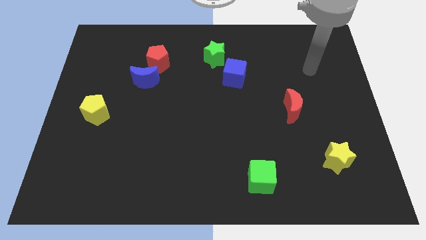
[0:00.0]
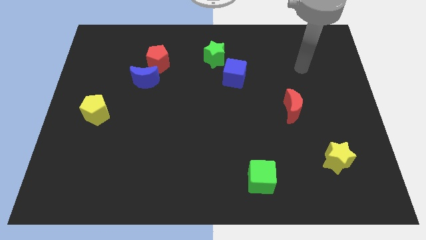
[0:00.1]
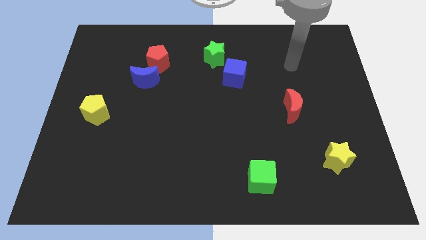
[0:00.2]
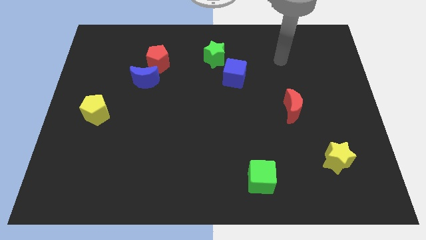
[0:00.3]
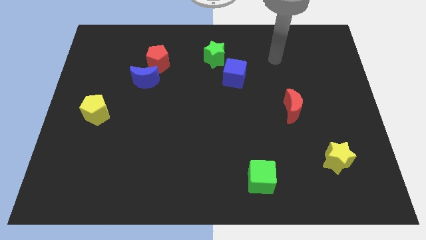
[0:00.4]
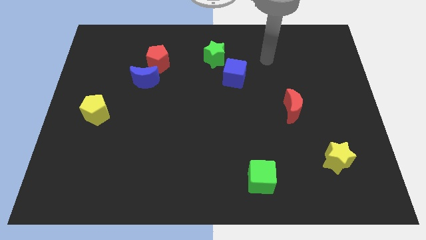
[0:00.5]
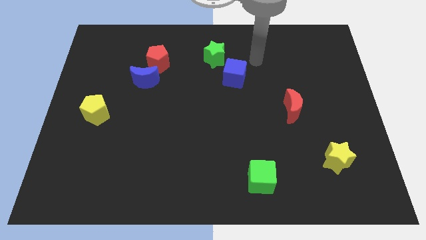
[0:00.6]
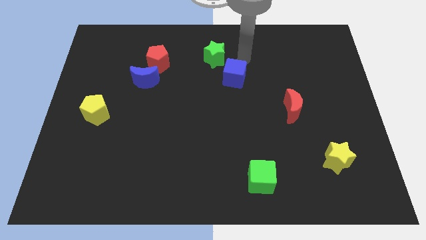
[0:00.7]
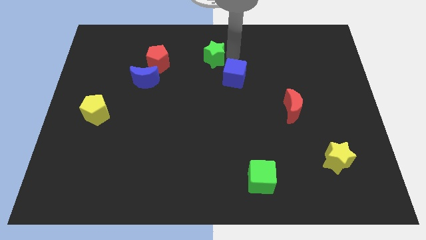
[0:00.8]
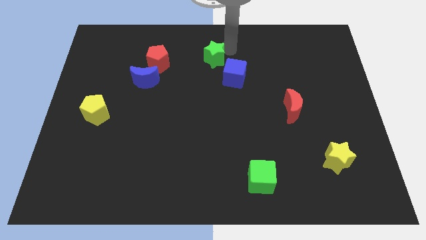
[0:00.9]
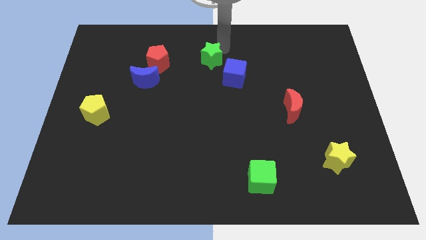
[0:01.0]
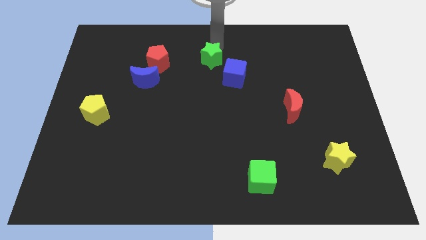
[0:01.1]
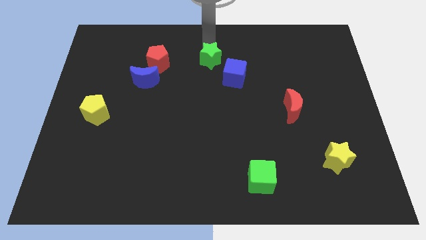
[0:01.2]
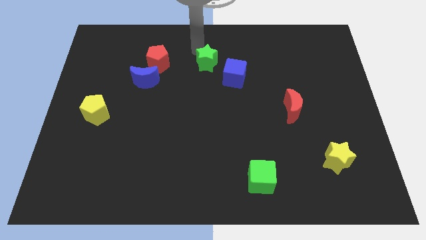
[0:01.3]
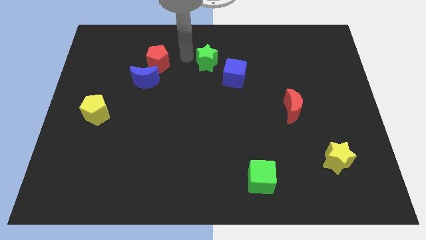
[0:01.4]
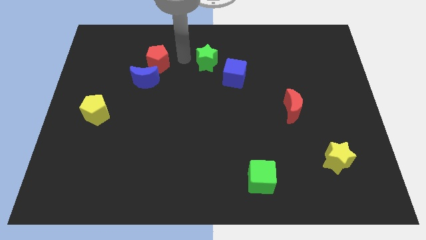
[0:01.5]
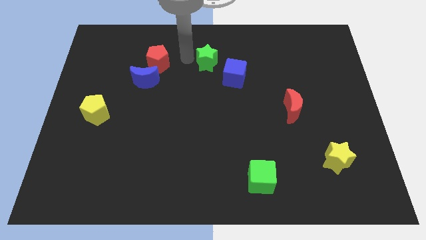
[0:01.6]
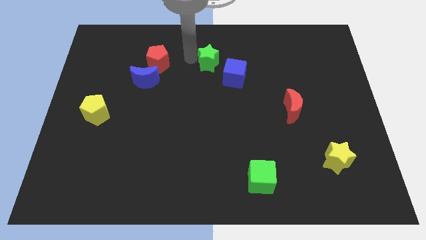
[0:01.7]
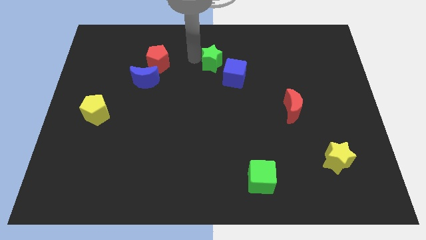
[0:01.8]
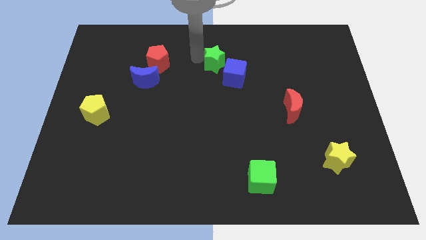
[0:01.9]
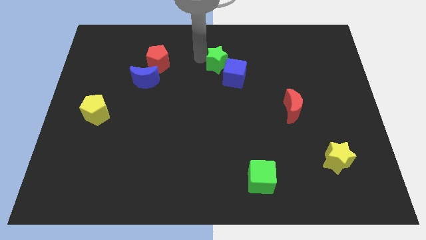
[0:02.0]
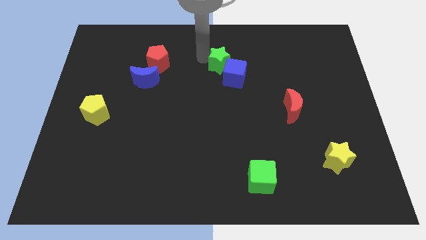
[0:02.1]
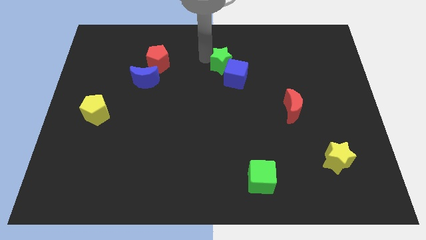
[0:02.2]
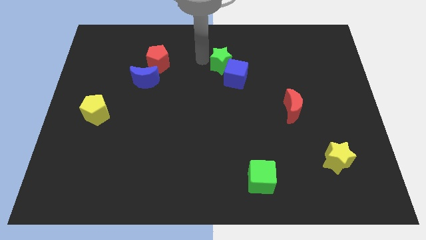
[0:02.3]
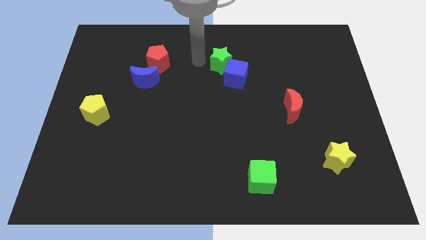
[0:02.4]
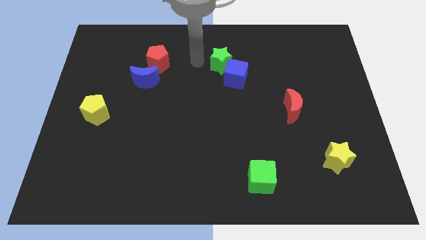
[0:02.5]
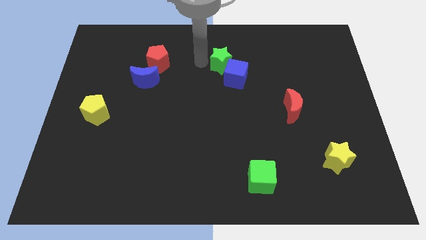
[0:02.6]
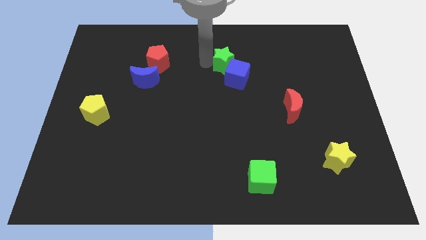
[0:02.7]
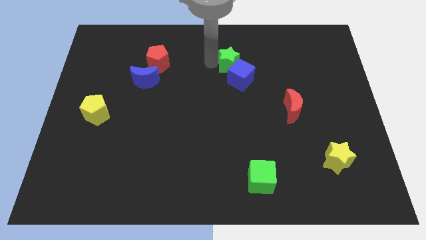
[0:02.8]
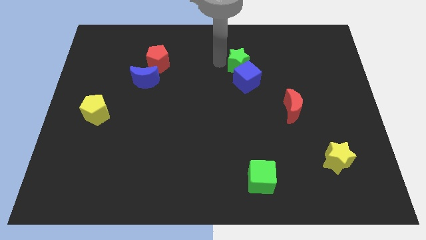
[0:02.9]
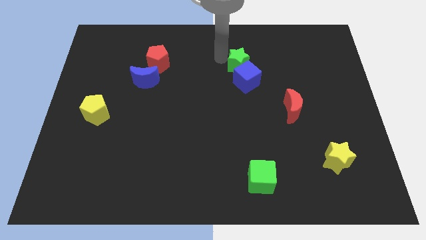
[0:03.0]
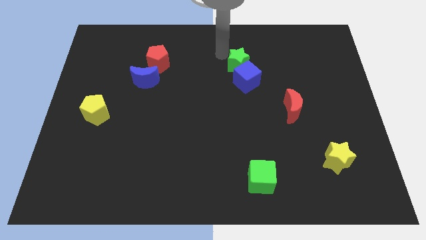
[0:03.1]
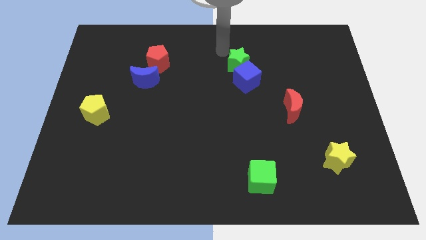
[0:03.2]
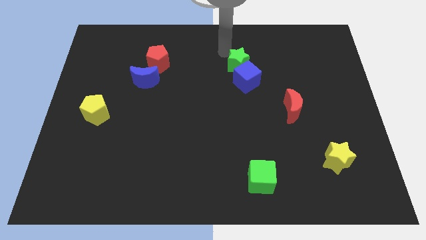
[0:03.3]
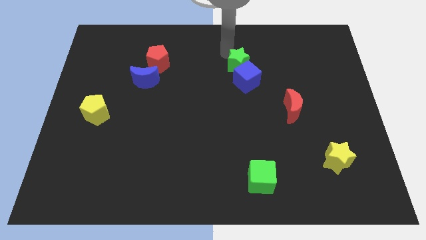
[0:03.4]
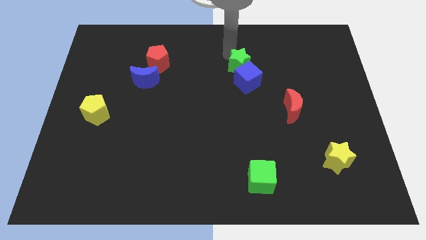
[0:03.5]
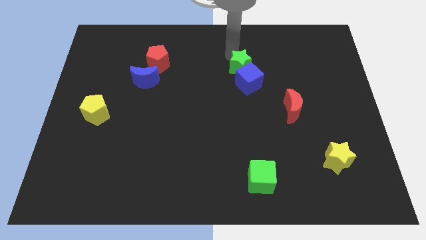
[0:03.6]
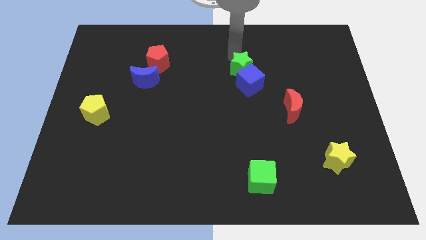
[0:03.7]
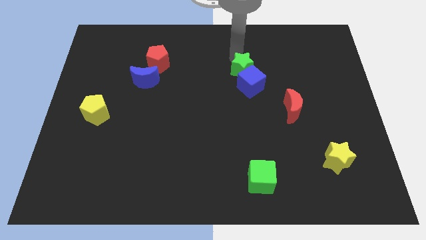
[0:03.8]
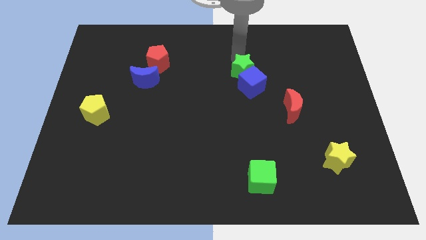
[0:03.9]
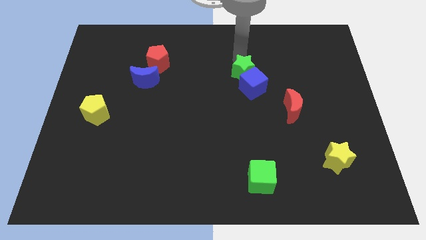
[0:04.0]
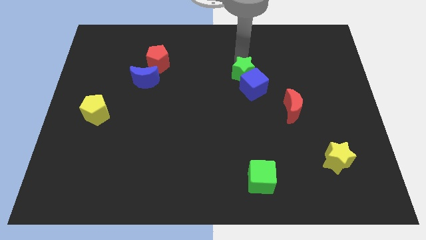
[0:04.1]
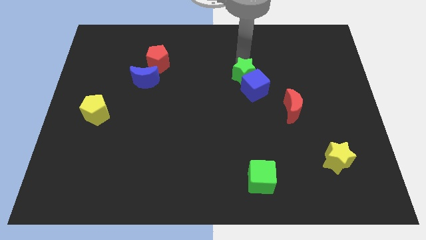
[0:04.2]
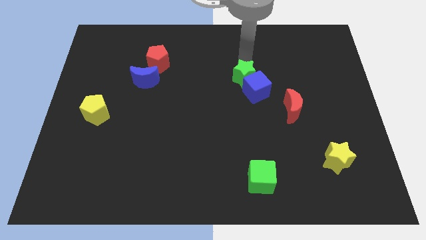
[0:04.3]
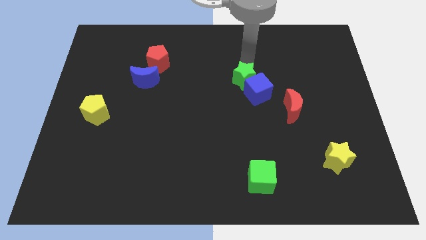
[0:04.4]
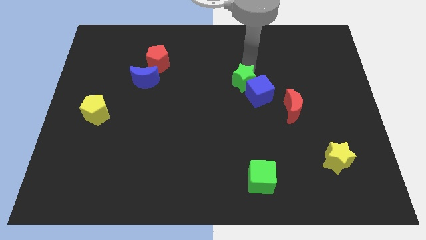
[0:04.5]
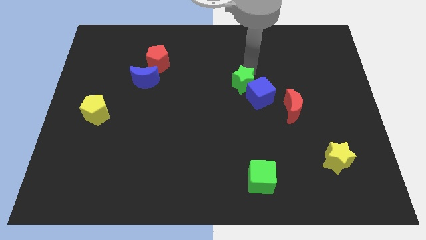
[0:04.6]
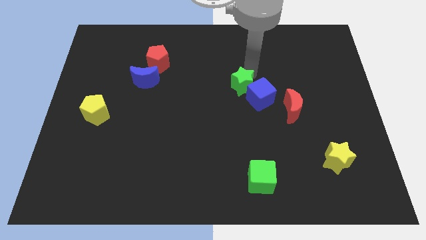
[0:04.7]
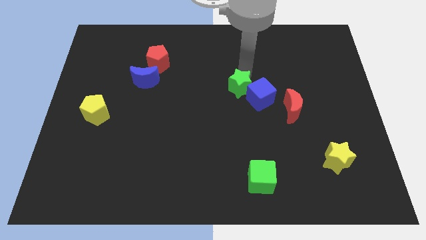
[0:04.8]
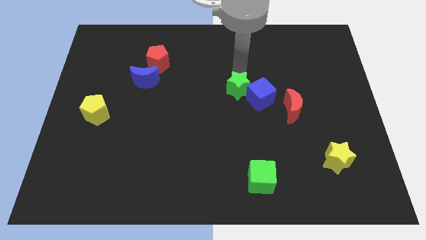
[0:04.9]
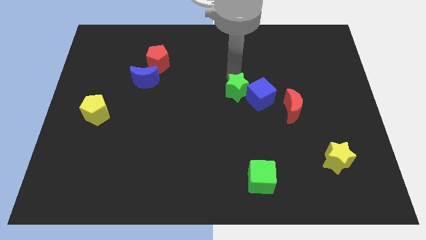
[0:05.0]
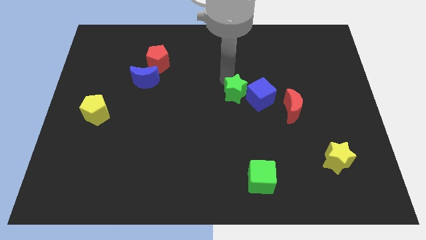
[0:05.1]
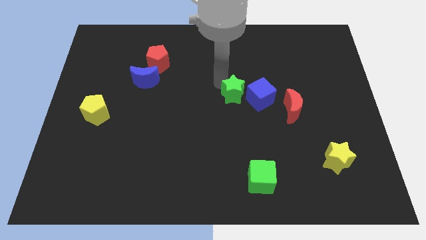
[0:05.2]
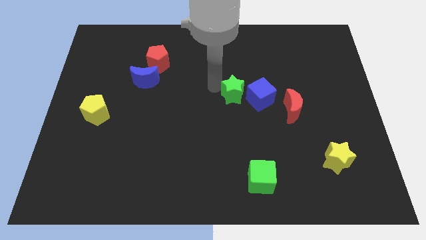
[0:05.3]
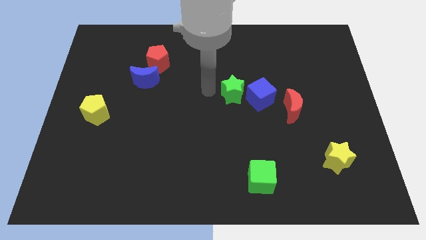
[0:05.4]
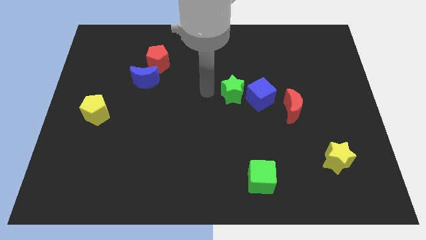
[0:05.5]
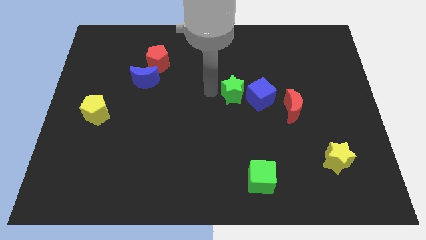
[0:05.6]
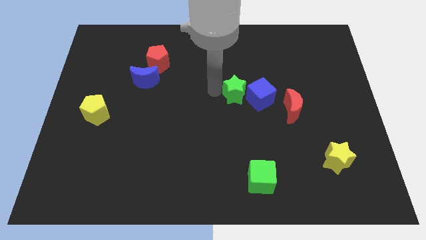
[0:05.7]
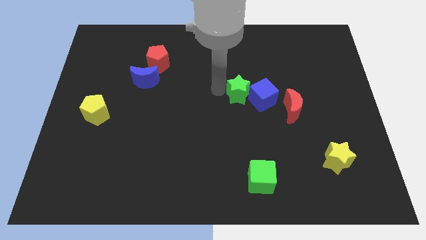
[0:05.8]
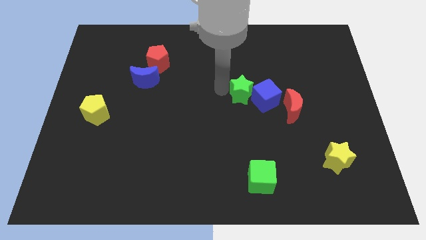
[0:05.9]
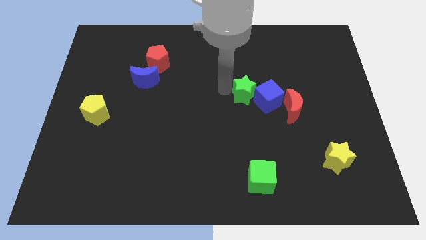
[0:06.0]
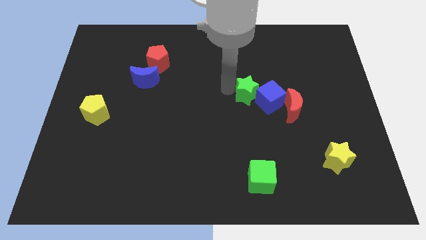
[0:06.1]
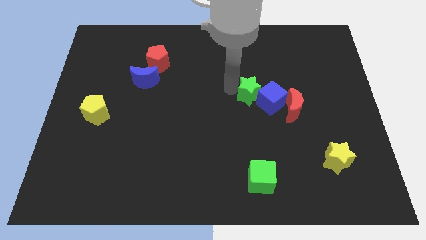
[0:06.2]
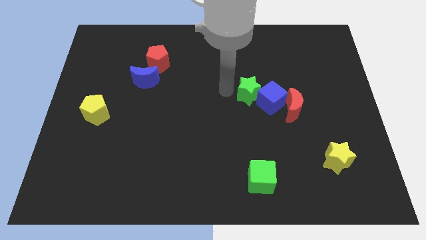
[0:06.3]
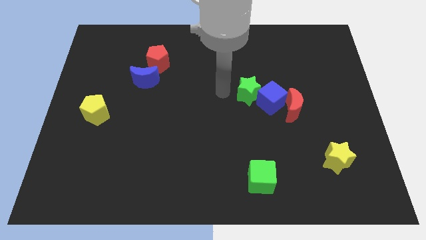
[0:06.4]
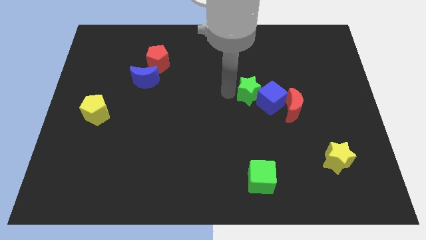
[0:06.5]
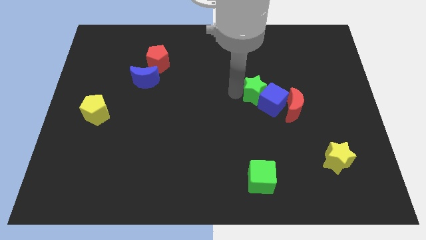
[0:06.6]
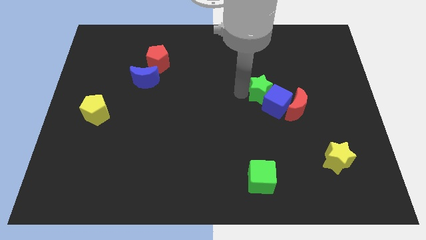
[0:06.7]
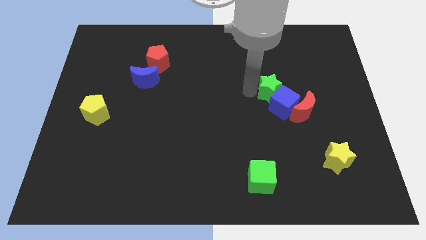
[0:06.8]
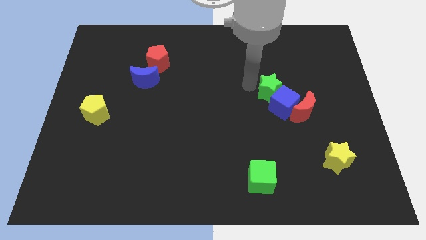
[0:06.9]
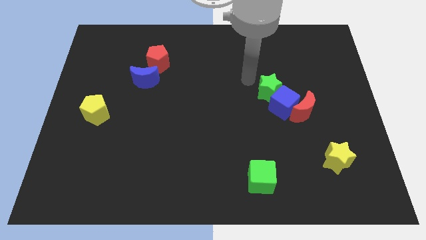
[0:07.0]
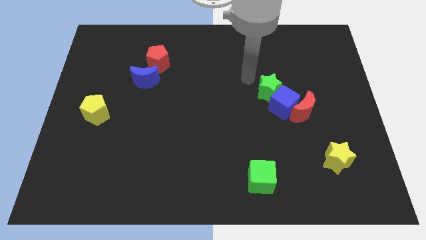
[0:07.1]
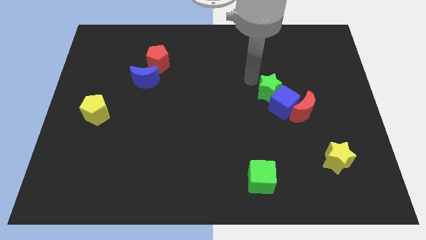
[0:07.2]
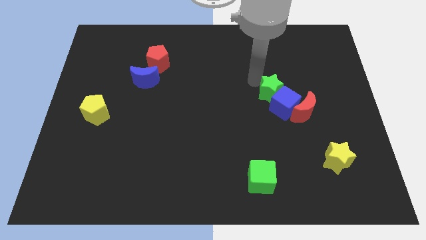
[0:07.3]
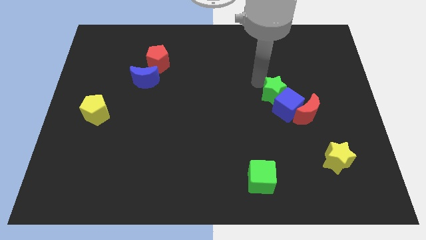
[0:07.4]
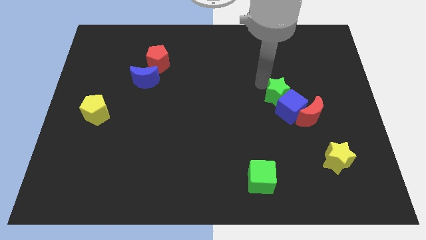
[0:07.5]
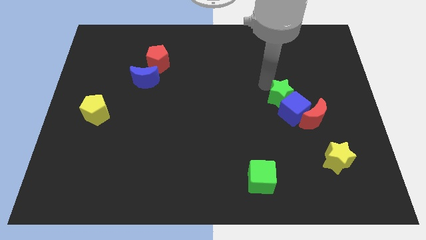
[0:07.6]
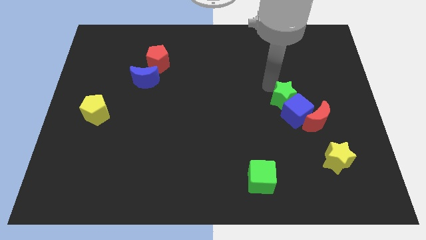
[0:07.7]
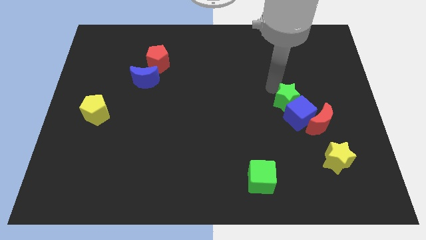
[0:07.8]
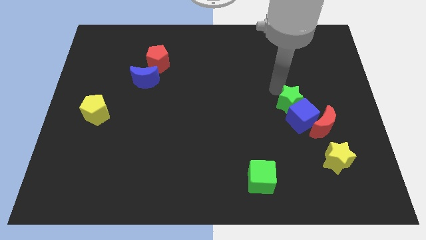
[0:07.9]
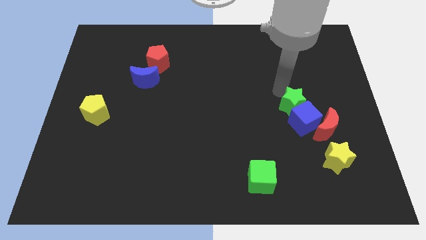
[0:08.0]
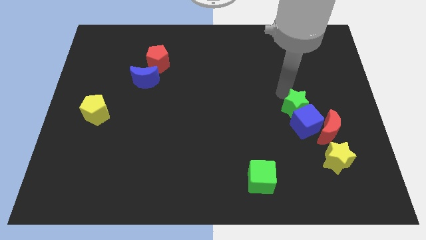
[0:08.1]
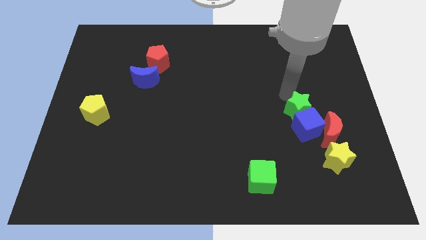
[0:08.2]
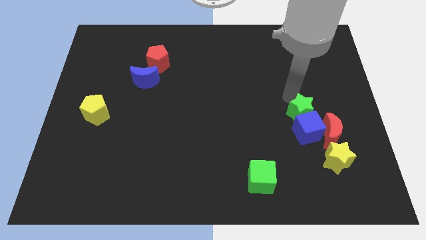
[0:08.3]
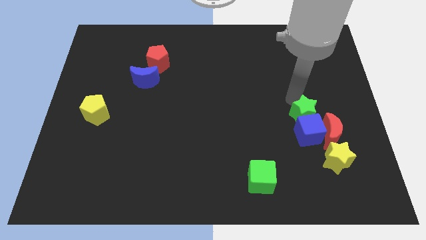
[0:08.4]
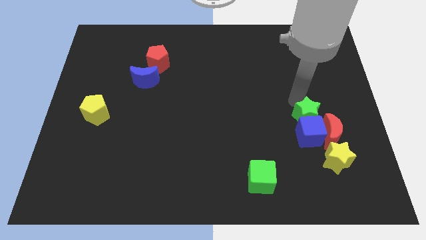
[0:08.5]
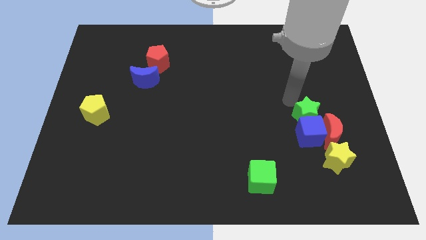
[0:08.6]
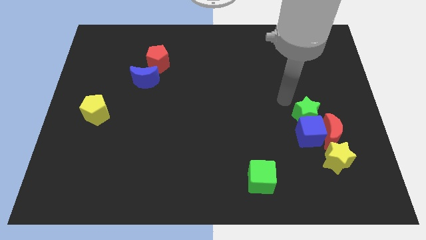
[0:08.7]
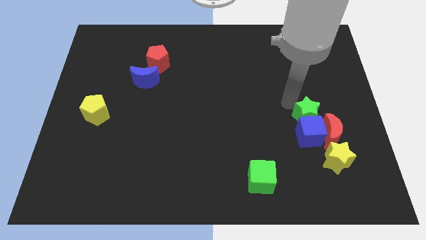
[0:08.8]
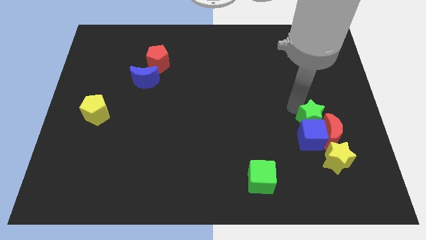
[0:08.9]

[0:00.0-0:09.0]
slide the green star close to the red moon
